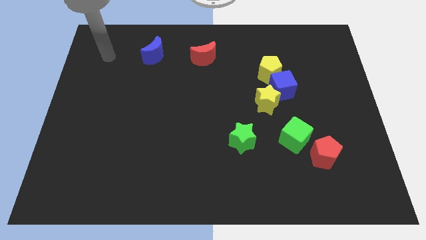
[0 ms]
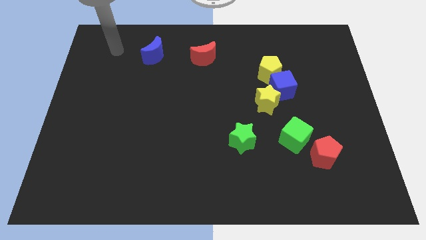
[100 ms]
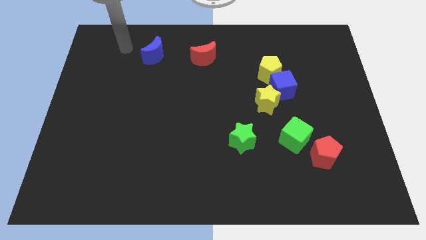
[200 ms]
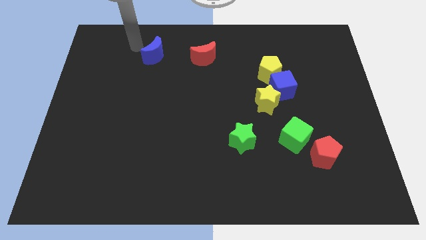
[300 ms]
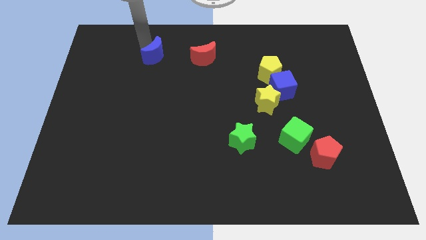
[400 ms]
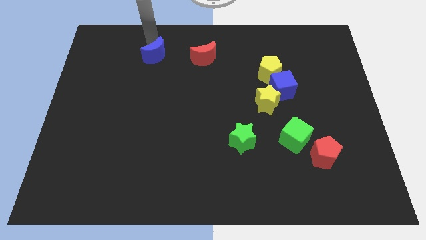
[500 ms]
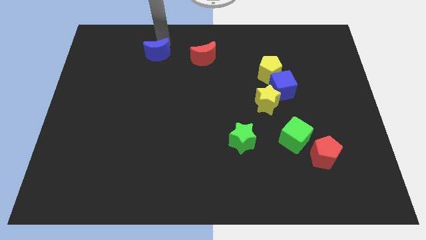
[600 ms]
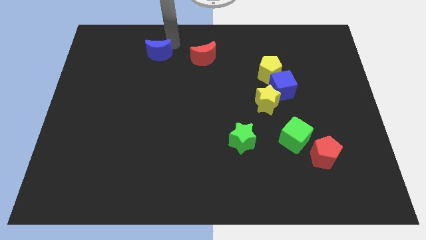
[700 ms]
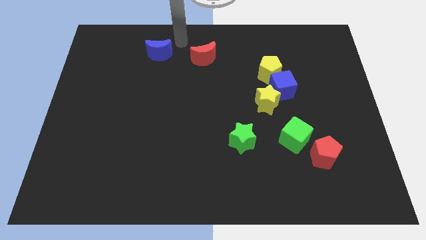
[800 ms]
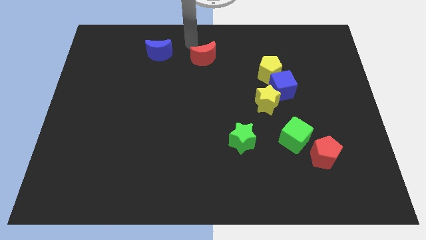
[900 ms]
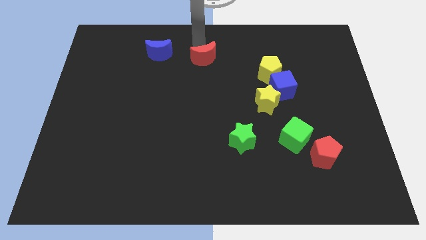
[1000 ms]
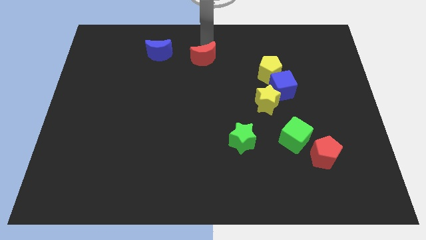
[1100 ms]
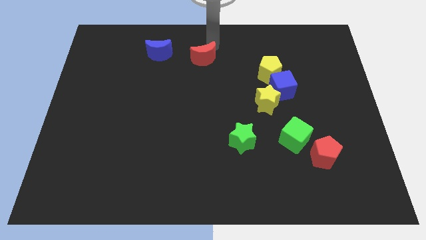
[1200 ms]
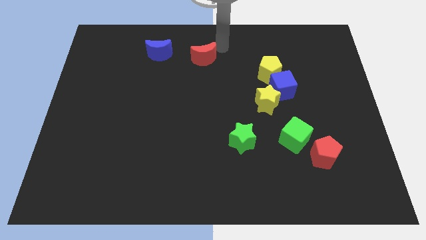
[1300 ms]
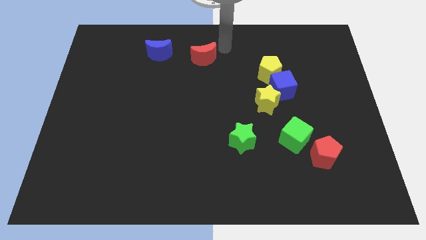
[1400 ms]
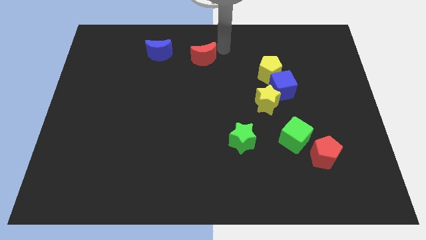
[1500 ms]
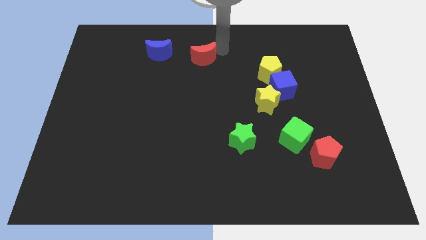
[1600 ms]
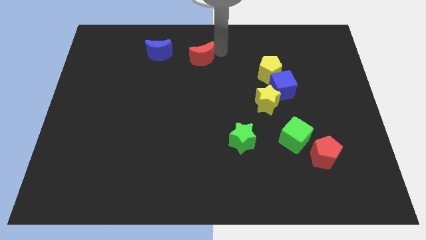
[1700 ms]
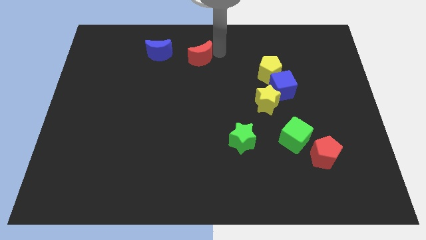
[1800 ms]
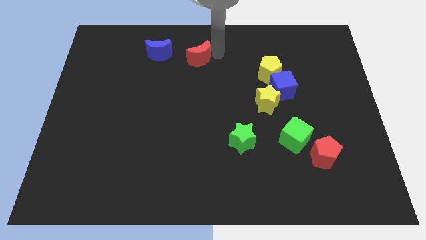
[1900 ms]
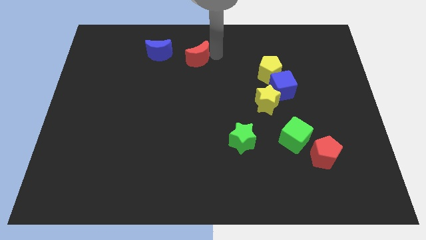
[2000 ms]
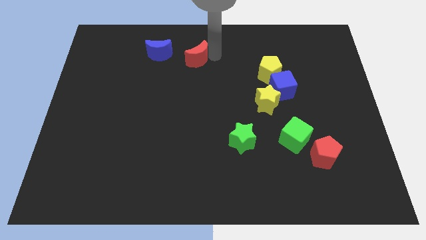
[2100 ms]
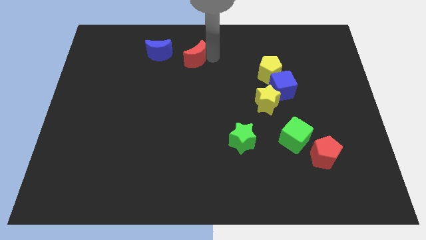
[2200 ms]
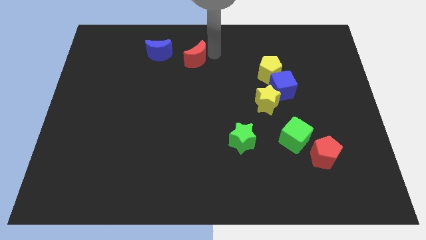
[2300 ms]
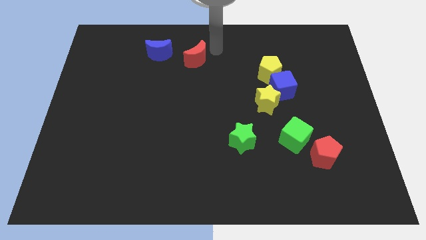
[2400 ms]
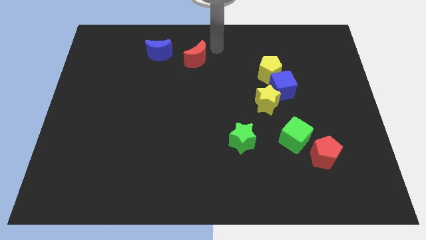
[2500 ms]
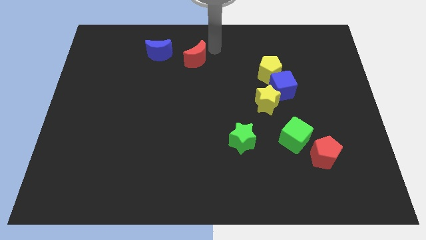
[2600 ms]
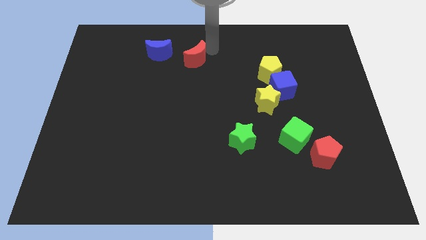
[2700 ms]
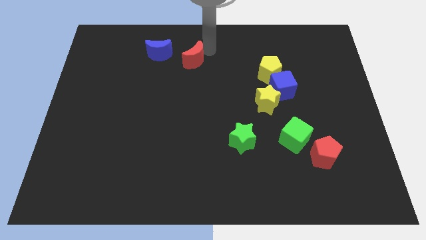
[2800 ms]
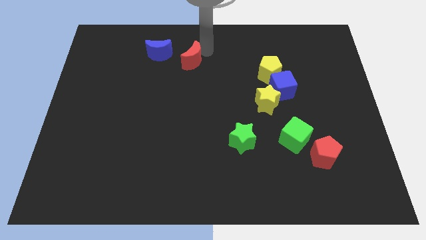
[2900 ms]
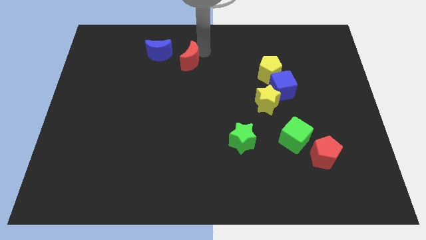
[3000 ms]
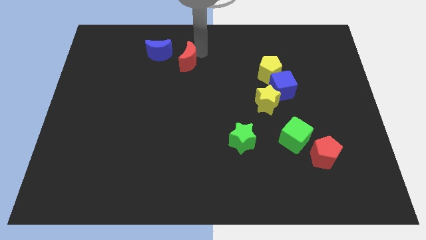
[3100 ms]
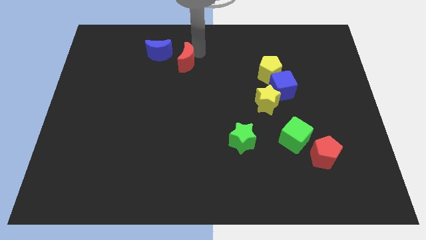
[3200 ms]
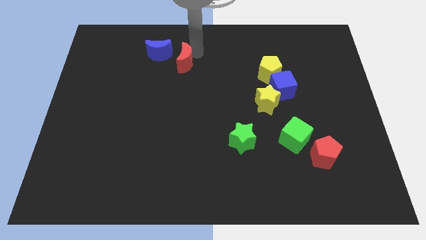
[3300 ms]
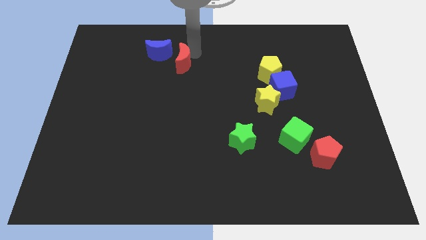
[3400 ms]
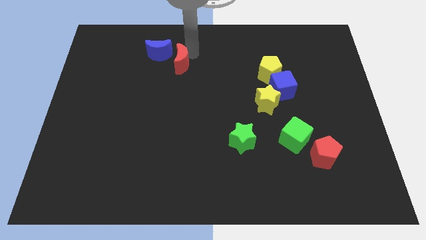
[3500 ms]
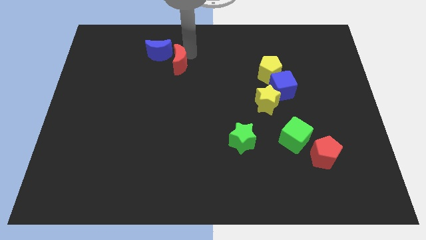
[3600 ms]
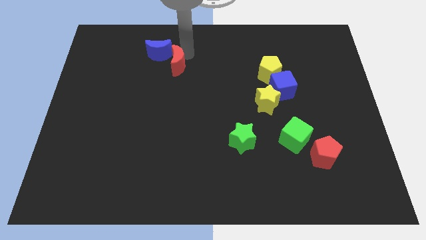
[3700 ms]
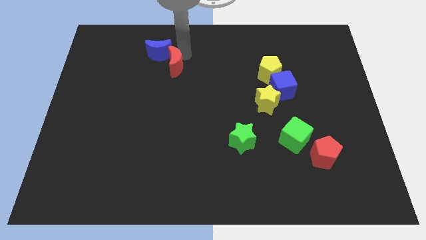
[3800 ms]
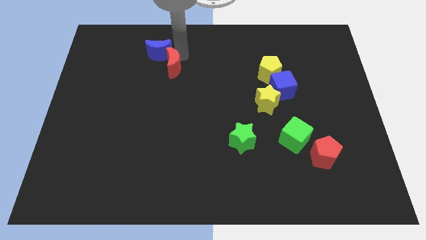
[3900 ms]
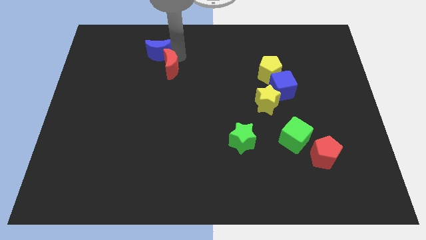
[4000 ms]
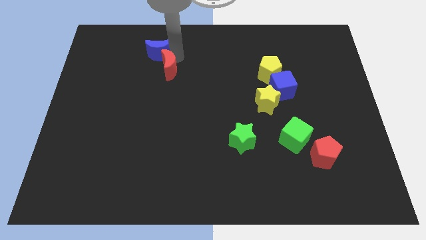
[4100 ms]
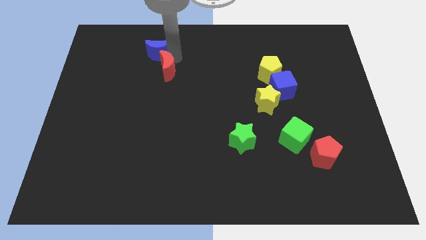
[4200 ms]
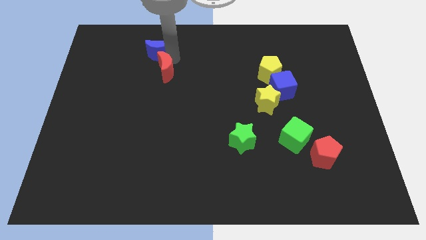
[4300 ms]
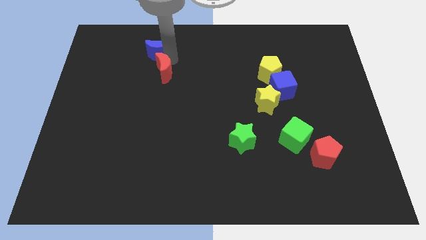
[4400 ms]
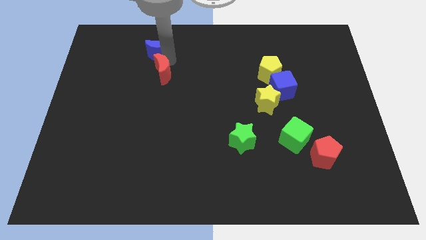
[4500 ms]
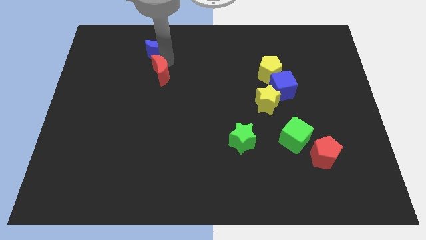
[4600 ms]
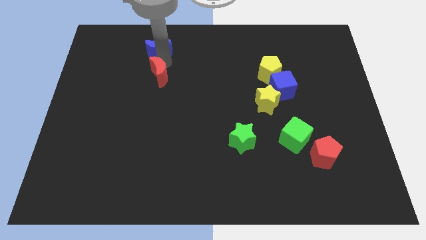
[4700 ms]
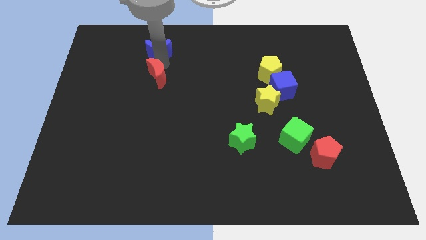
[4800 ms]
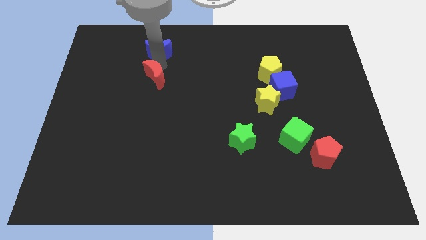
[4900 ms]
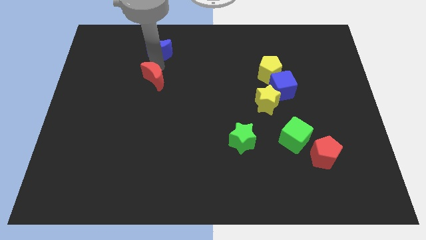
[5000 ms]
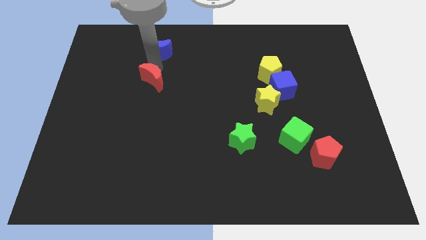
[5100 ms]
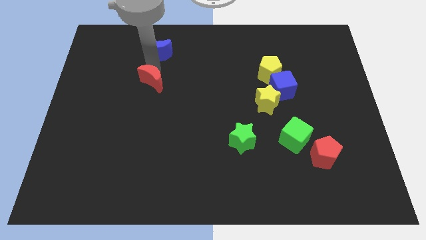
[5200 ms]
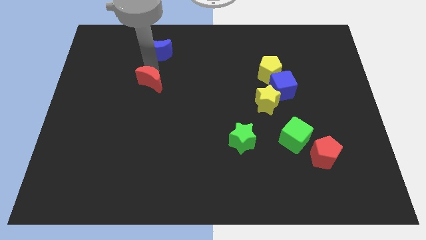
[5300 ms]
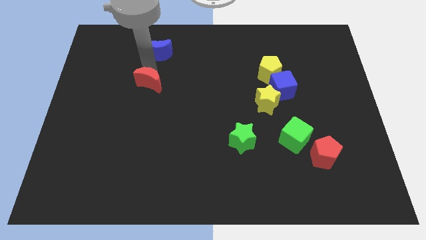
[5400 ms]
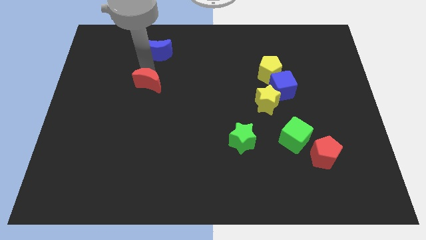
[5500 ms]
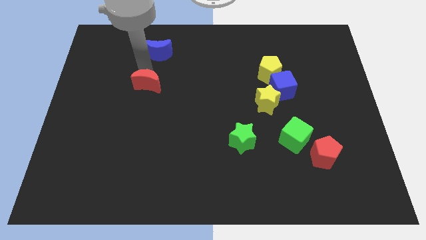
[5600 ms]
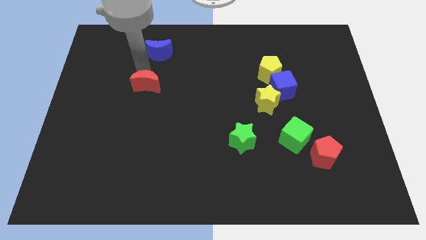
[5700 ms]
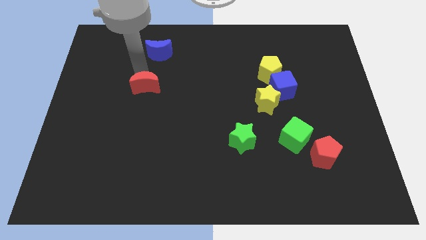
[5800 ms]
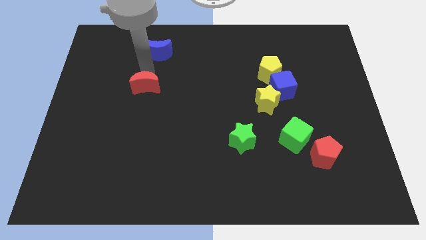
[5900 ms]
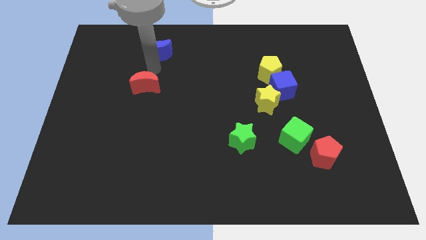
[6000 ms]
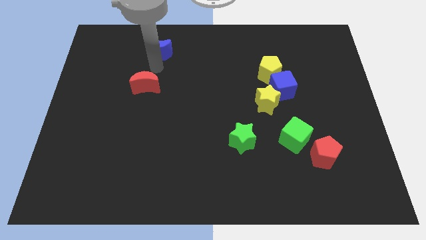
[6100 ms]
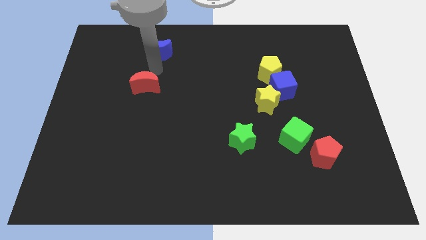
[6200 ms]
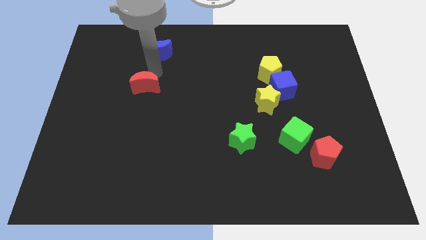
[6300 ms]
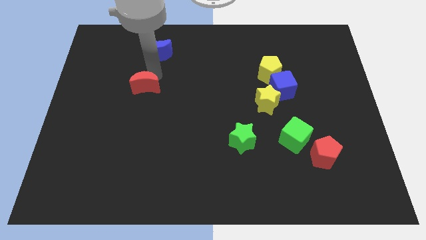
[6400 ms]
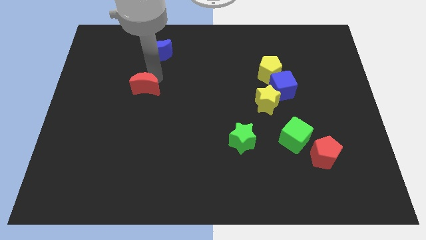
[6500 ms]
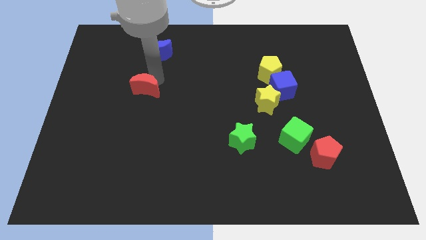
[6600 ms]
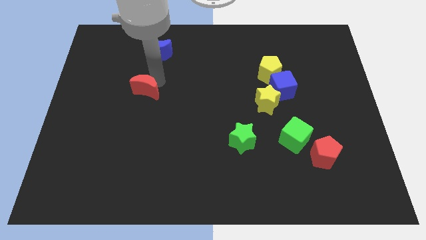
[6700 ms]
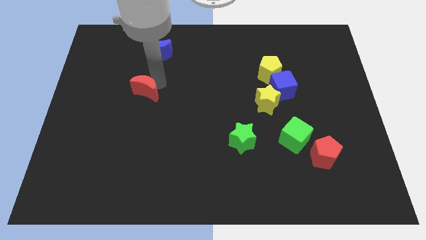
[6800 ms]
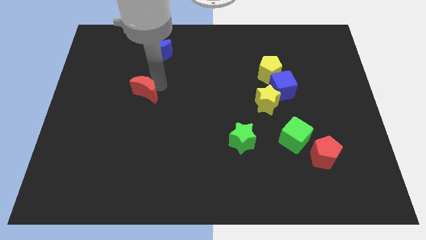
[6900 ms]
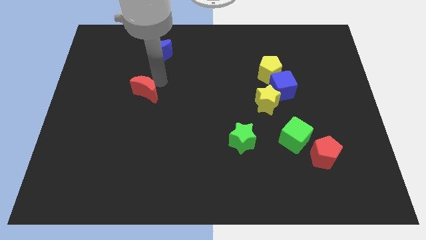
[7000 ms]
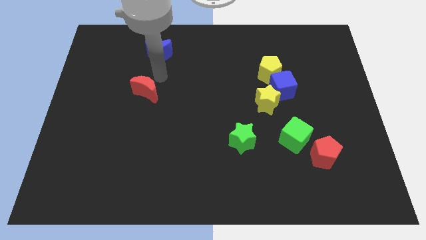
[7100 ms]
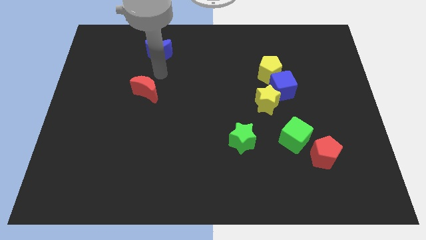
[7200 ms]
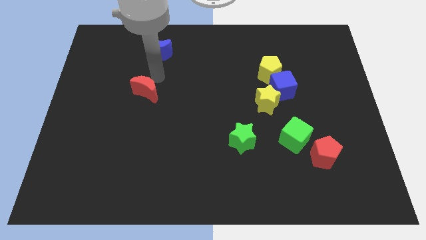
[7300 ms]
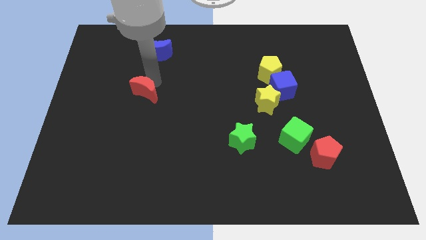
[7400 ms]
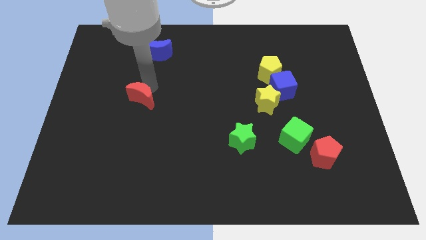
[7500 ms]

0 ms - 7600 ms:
push the red moon diagonally down and left

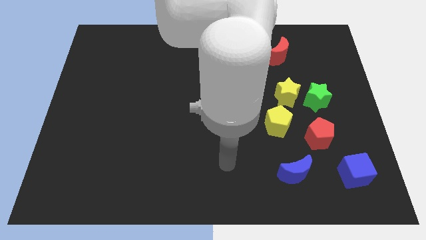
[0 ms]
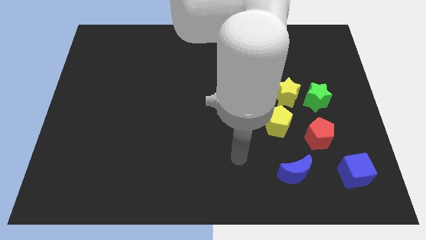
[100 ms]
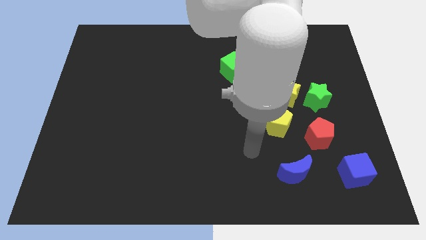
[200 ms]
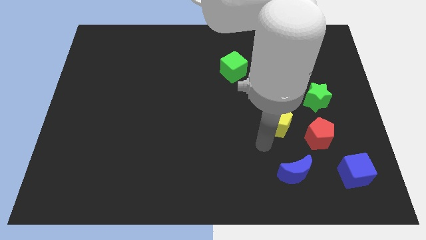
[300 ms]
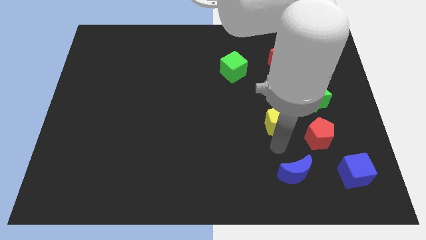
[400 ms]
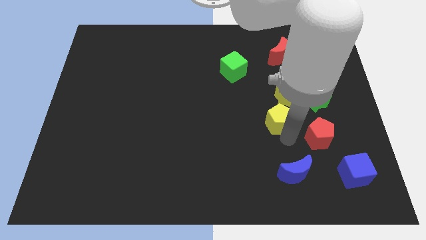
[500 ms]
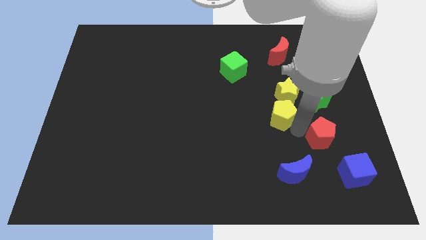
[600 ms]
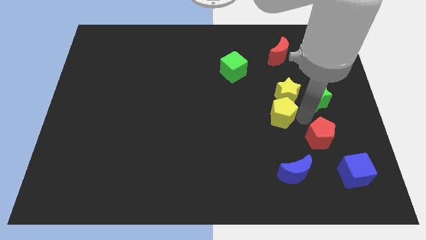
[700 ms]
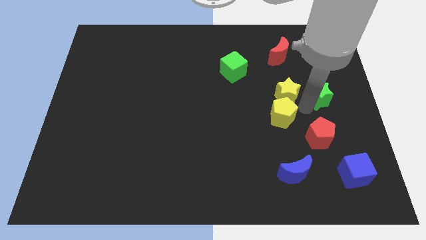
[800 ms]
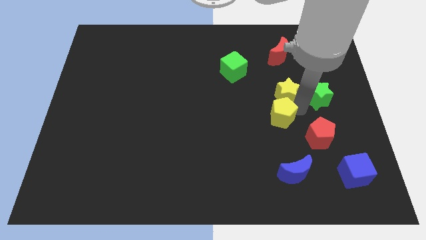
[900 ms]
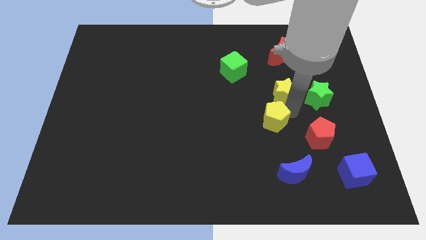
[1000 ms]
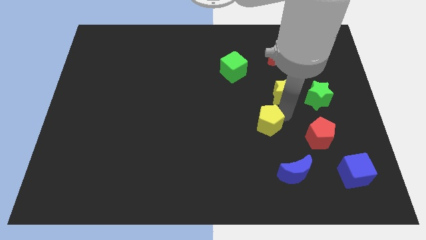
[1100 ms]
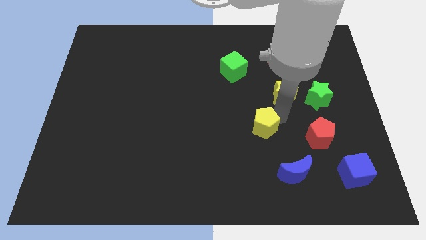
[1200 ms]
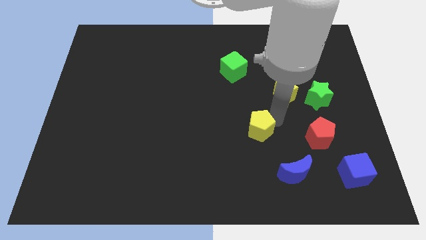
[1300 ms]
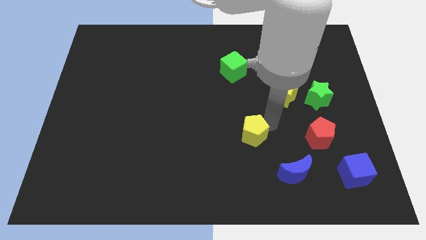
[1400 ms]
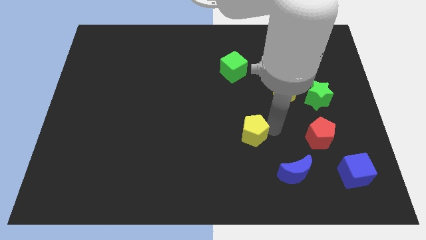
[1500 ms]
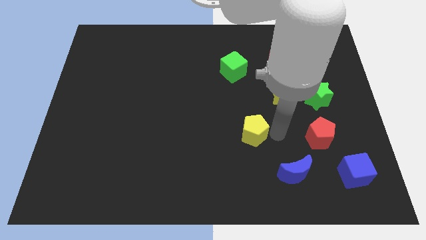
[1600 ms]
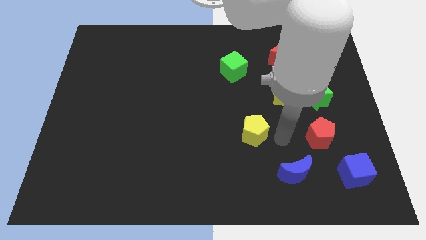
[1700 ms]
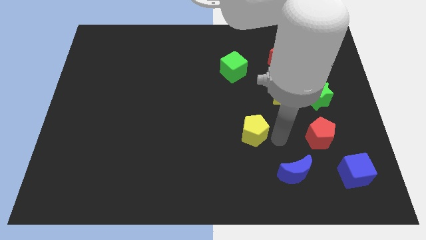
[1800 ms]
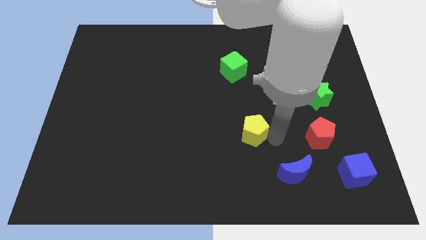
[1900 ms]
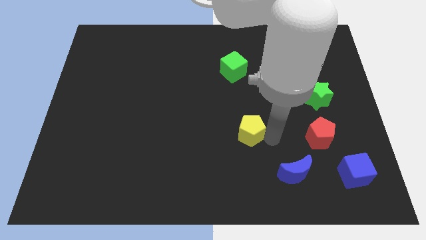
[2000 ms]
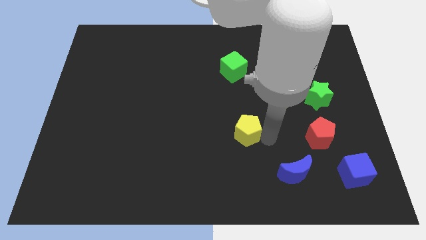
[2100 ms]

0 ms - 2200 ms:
slide the yellow pentagon a little bit to the left
